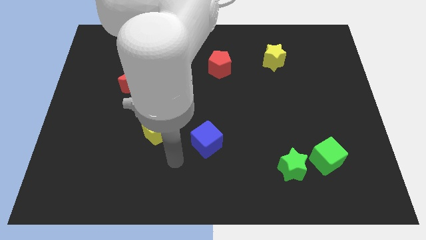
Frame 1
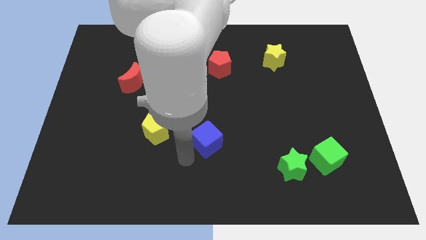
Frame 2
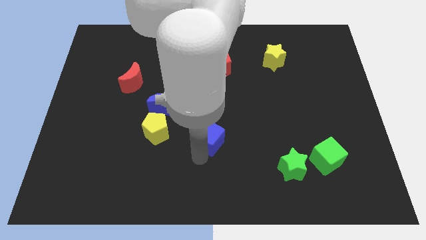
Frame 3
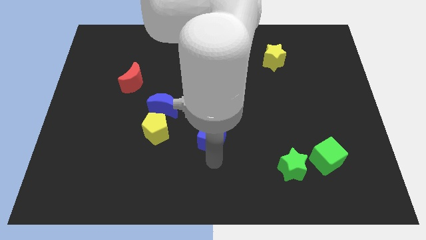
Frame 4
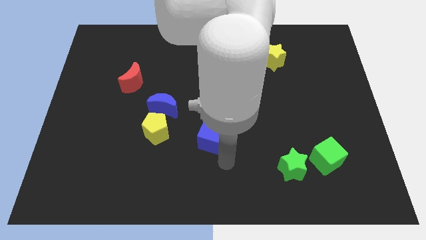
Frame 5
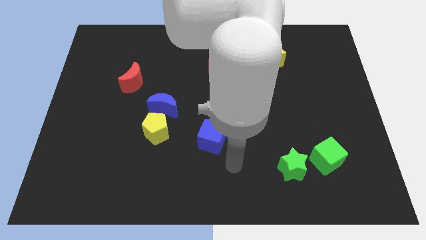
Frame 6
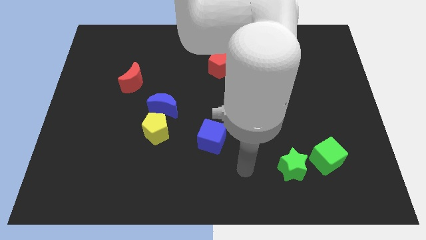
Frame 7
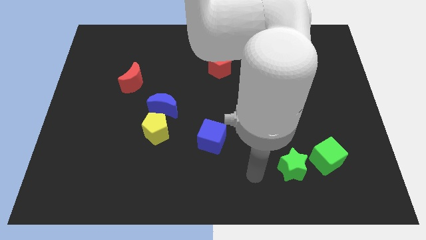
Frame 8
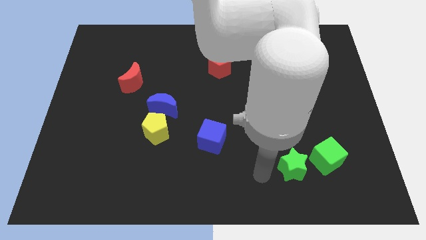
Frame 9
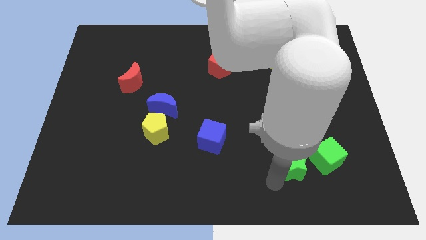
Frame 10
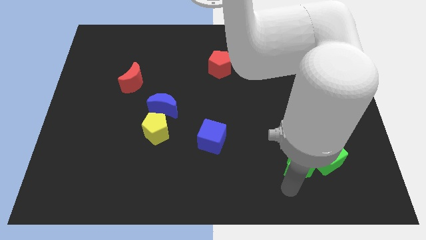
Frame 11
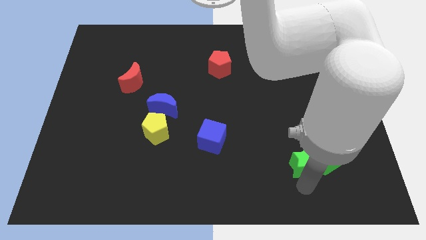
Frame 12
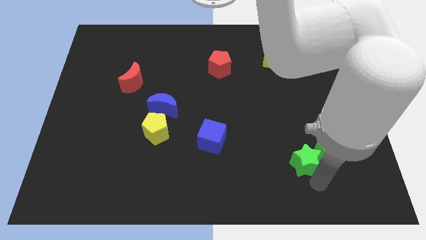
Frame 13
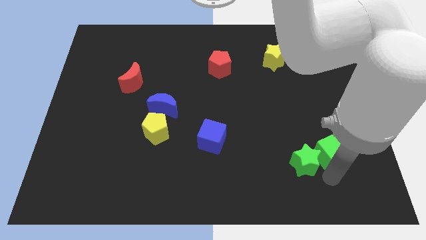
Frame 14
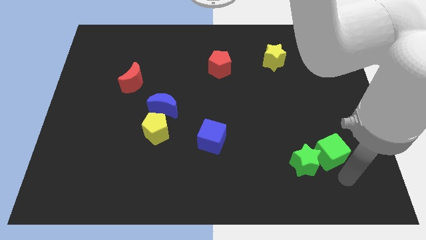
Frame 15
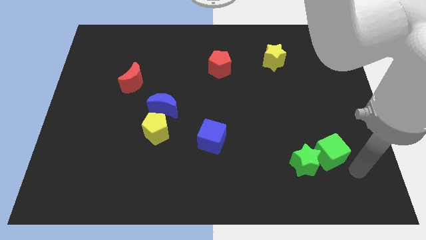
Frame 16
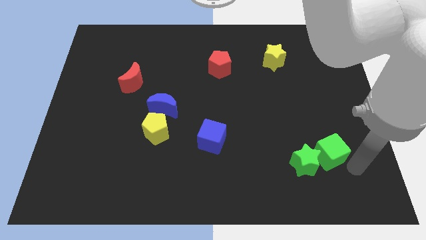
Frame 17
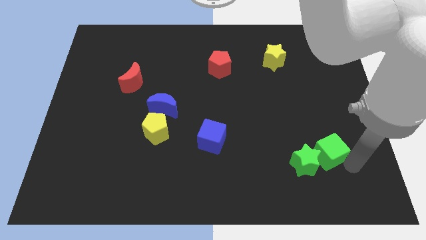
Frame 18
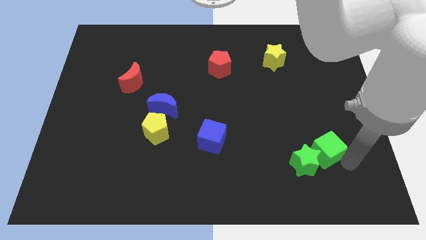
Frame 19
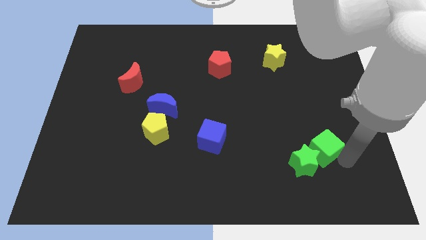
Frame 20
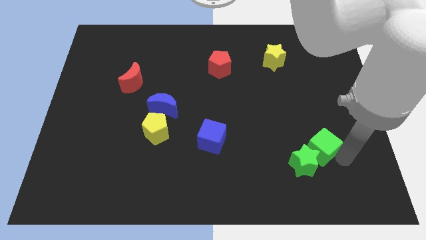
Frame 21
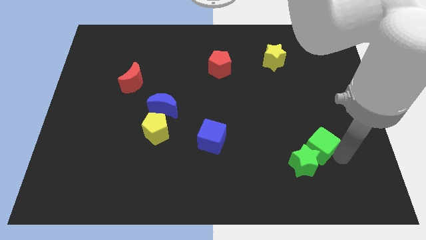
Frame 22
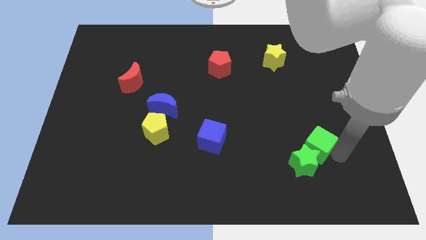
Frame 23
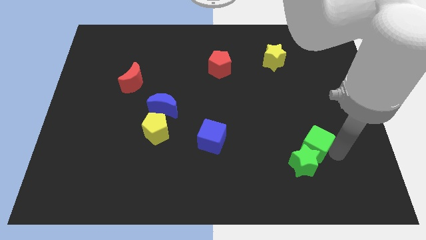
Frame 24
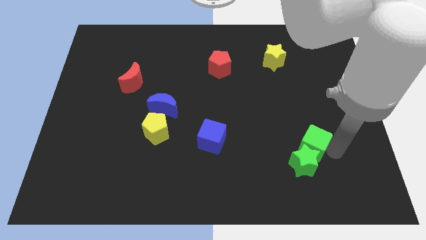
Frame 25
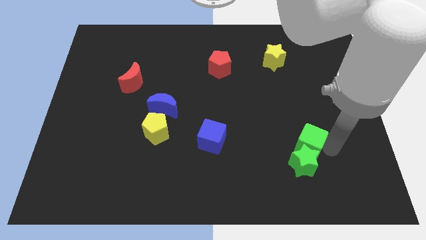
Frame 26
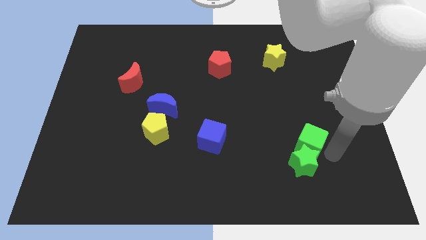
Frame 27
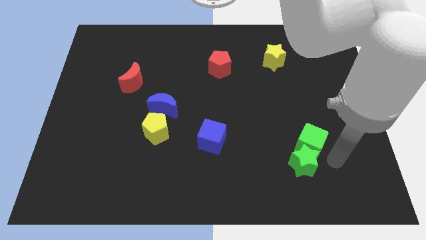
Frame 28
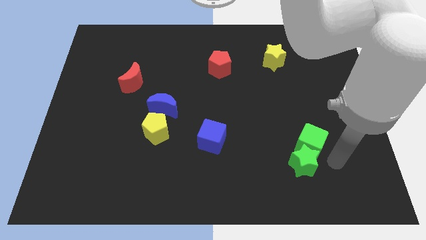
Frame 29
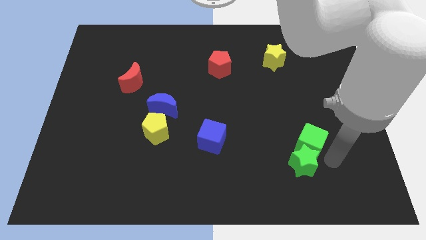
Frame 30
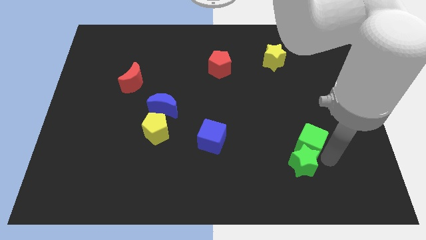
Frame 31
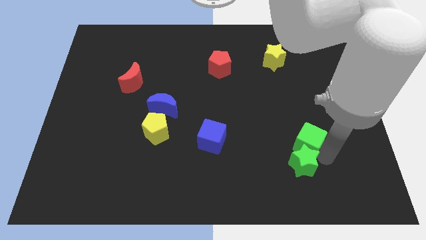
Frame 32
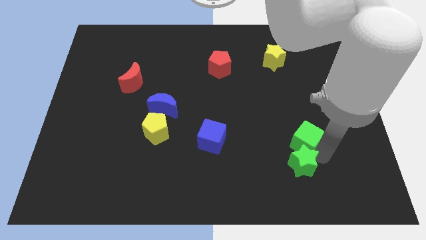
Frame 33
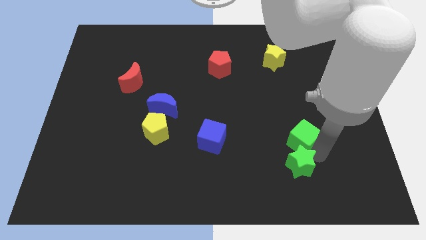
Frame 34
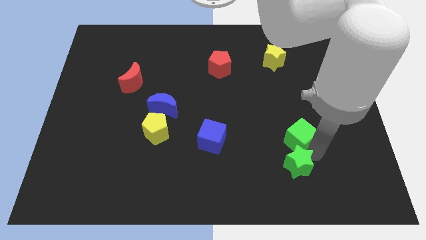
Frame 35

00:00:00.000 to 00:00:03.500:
slightly slide the green cube diagonally up and left

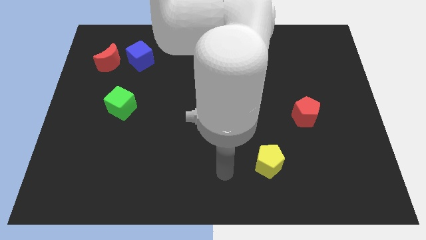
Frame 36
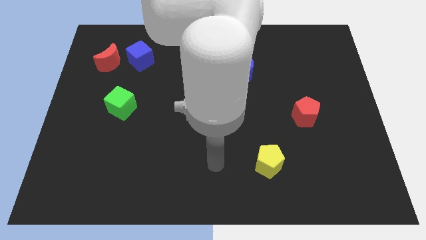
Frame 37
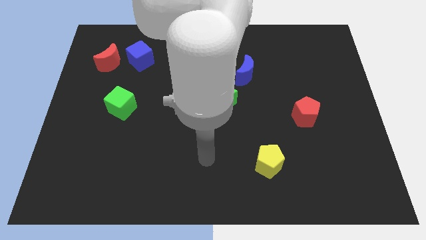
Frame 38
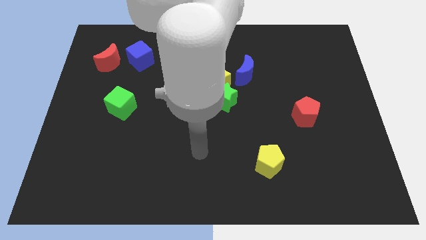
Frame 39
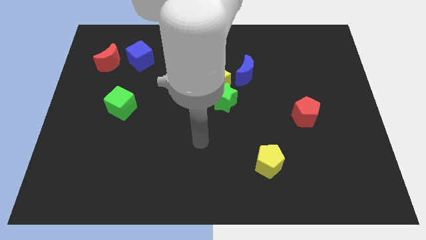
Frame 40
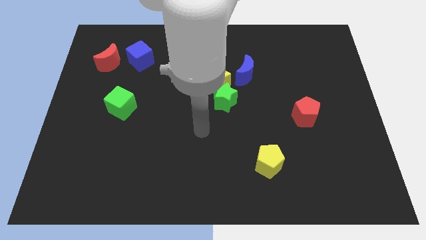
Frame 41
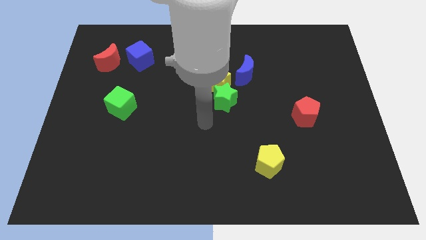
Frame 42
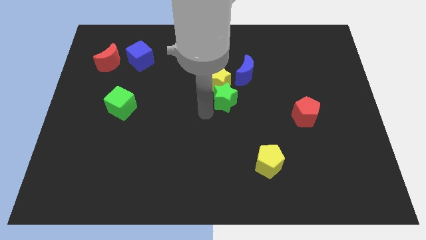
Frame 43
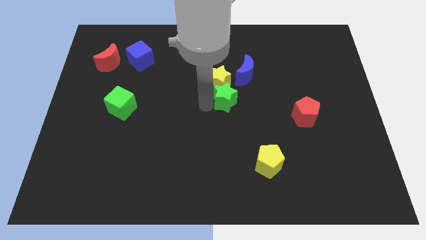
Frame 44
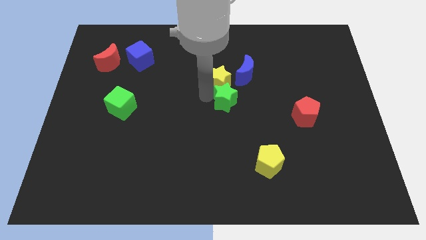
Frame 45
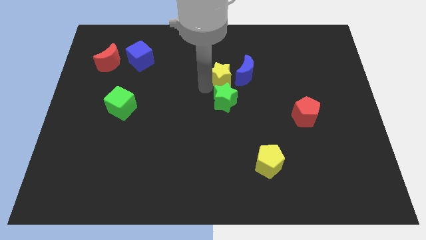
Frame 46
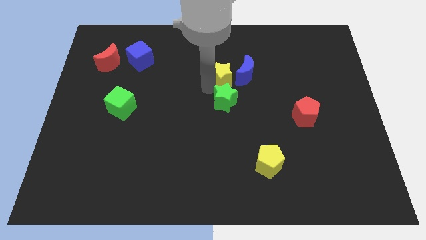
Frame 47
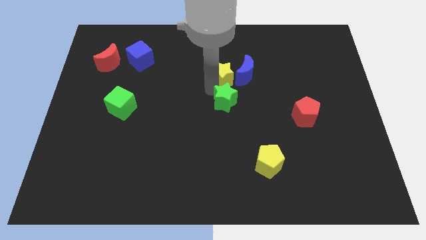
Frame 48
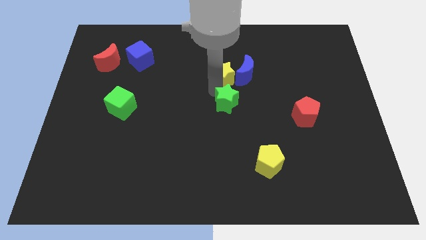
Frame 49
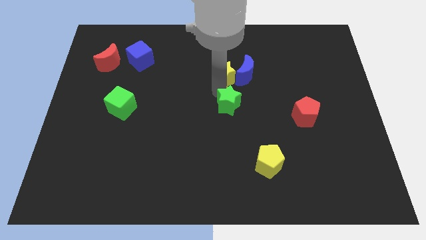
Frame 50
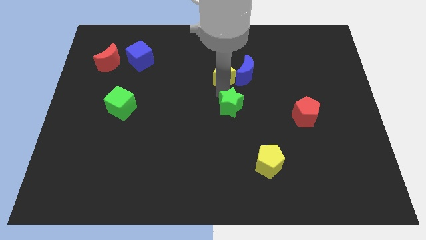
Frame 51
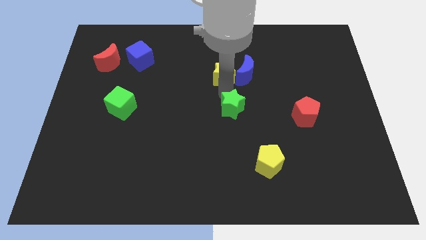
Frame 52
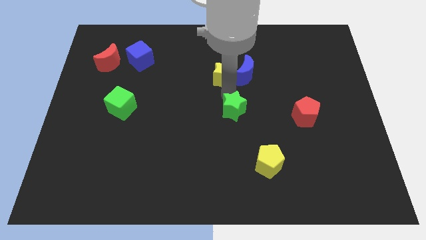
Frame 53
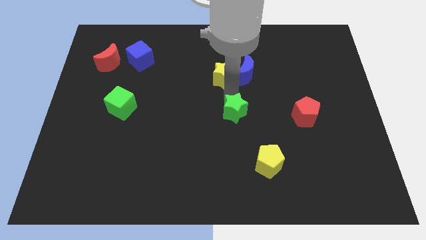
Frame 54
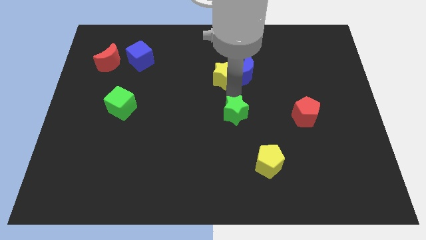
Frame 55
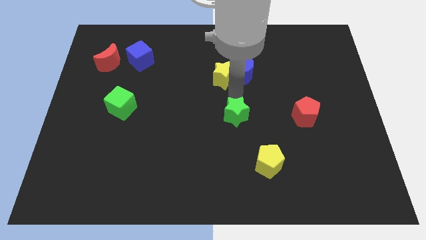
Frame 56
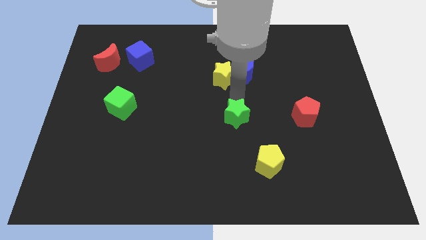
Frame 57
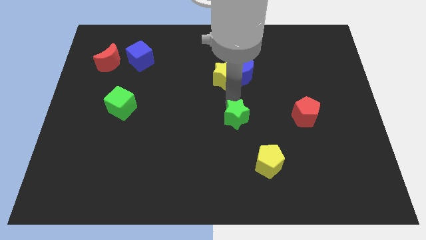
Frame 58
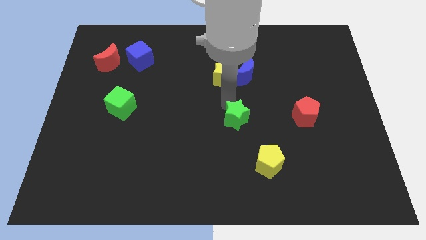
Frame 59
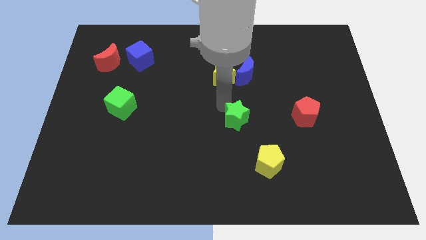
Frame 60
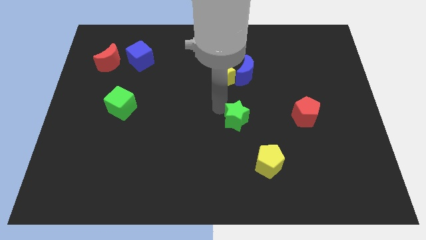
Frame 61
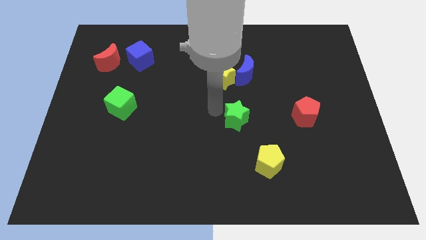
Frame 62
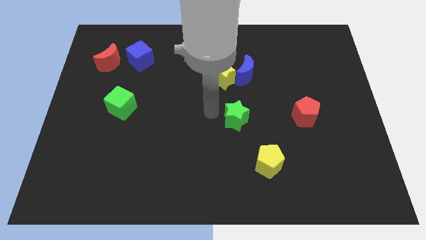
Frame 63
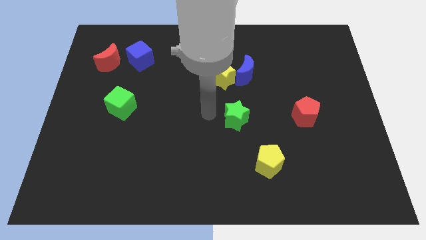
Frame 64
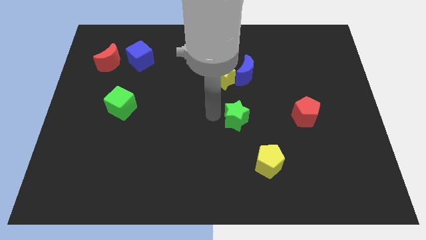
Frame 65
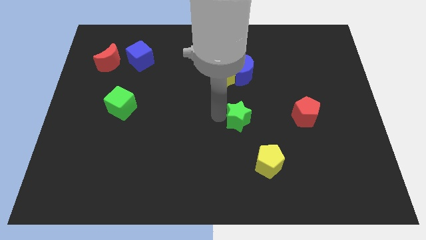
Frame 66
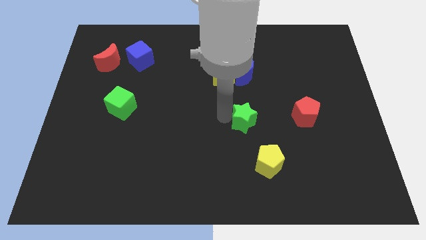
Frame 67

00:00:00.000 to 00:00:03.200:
move the green star diagonally downwards and right somewhat

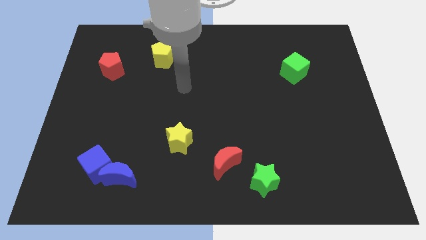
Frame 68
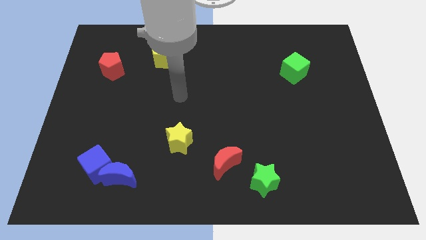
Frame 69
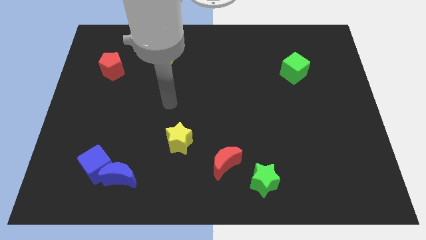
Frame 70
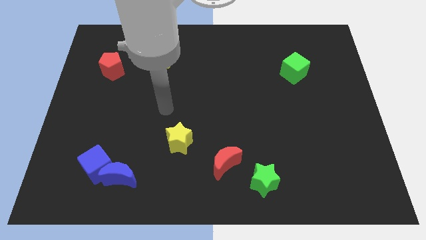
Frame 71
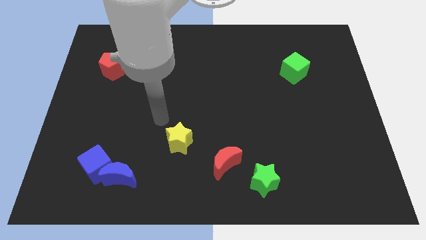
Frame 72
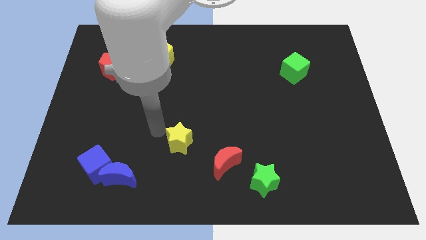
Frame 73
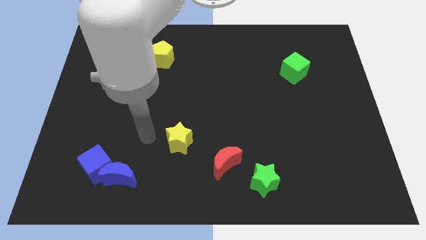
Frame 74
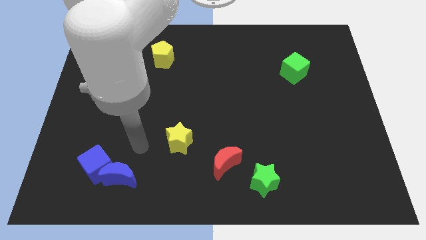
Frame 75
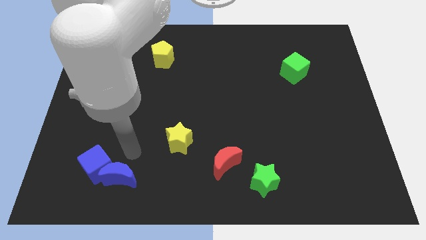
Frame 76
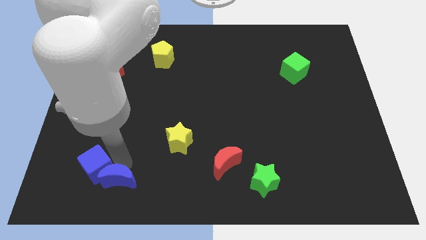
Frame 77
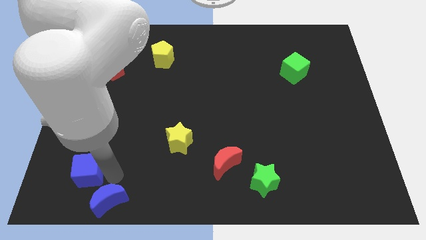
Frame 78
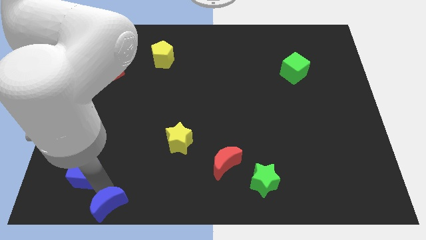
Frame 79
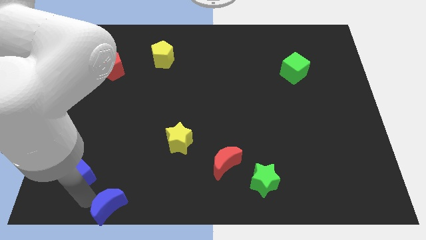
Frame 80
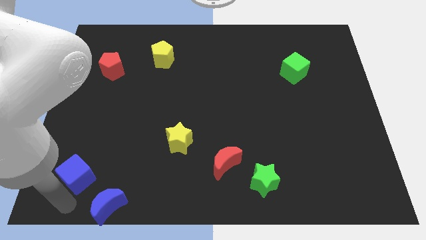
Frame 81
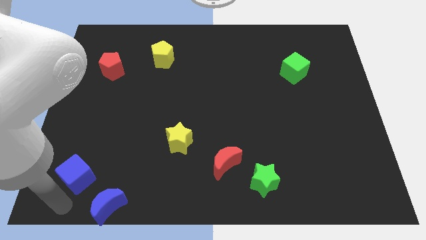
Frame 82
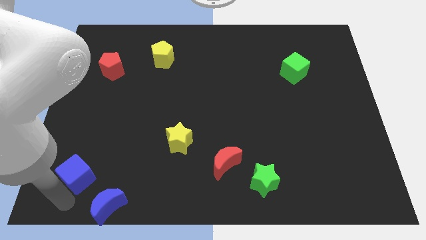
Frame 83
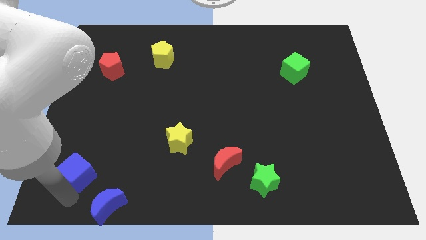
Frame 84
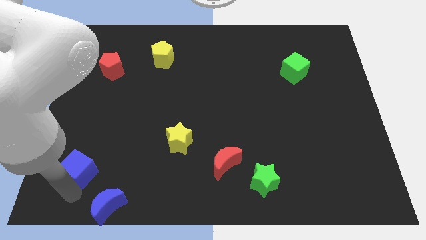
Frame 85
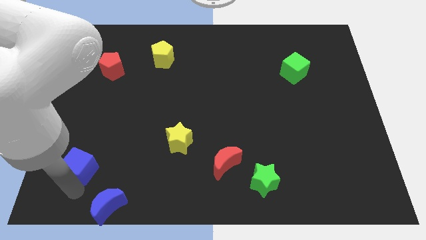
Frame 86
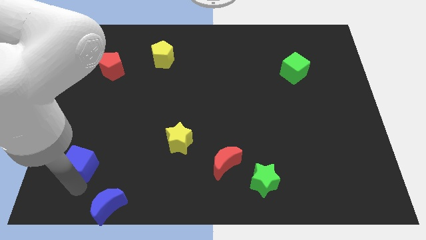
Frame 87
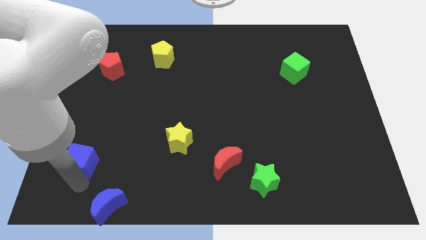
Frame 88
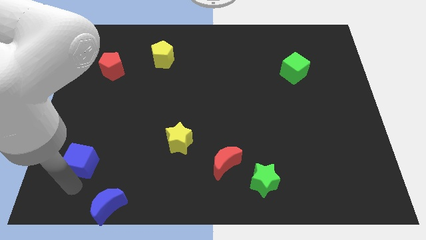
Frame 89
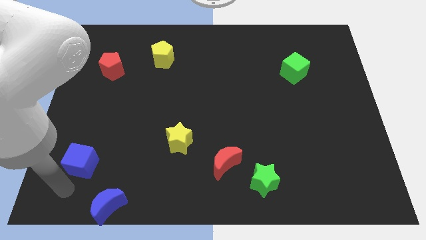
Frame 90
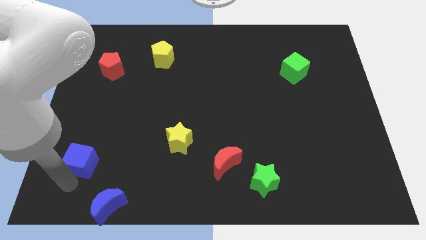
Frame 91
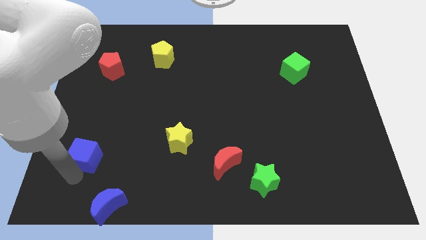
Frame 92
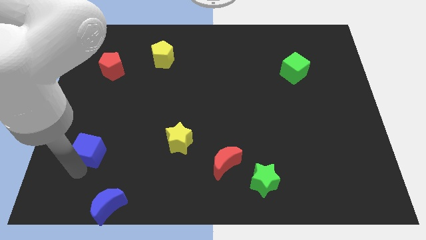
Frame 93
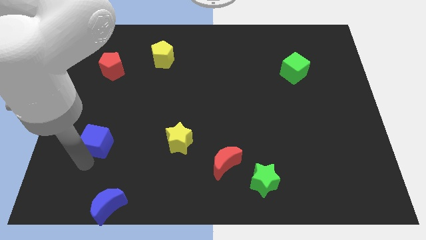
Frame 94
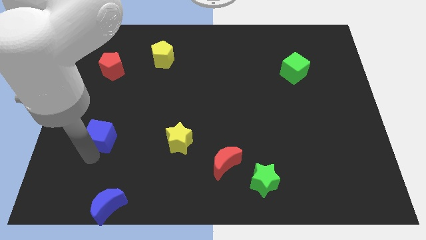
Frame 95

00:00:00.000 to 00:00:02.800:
slide the blue cube a bit up
